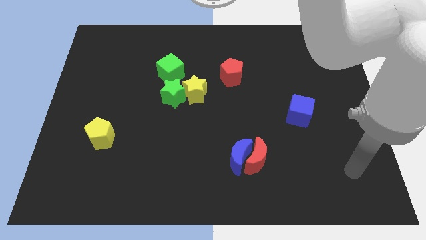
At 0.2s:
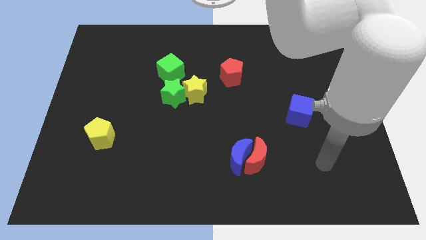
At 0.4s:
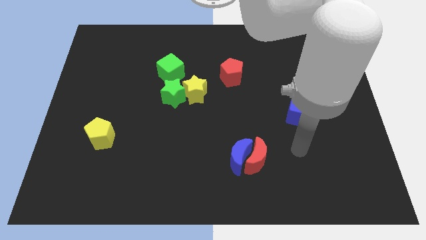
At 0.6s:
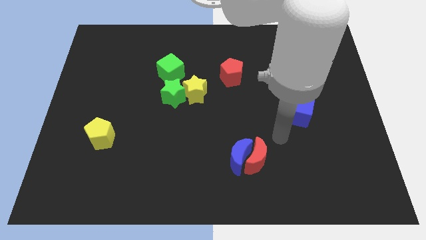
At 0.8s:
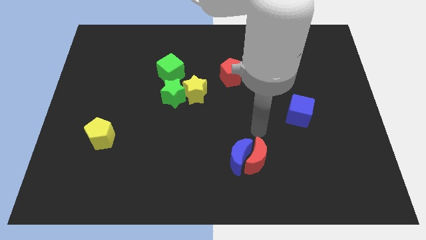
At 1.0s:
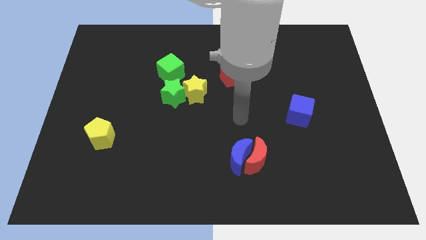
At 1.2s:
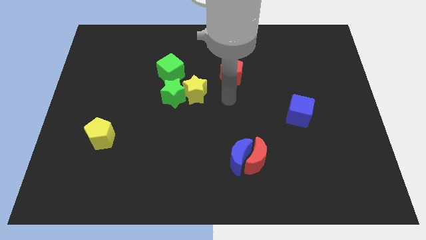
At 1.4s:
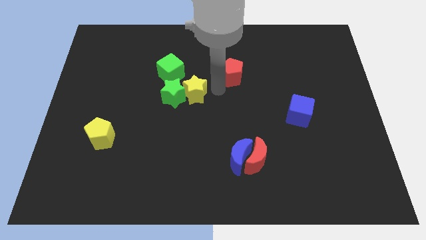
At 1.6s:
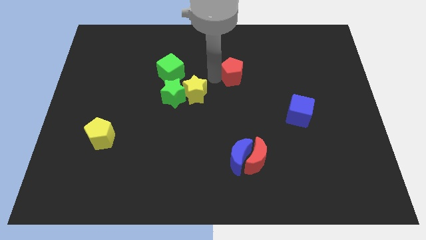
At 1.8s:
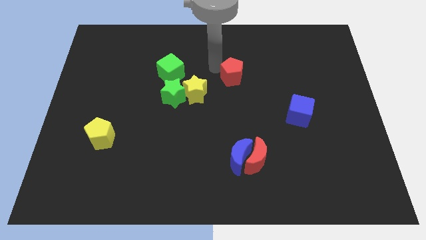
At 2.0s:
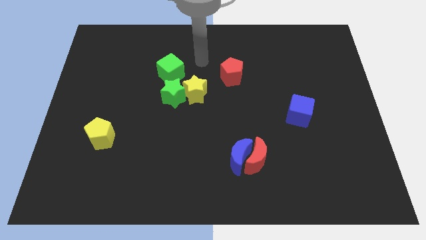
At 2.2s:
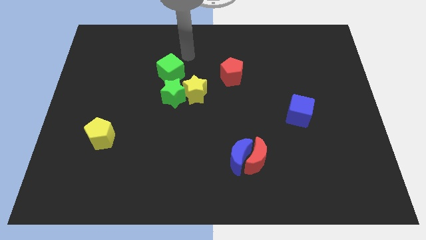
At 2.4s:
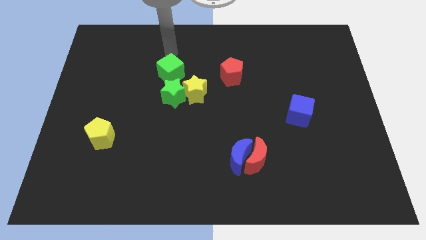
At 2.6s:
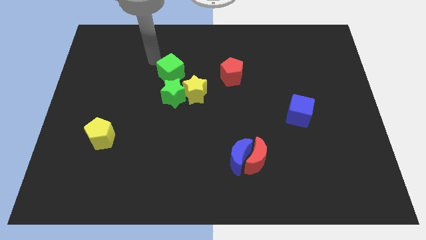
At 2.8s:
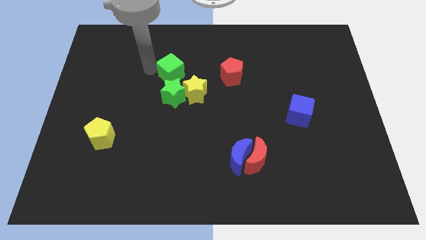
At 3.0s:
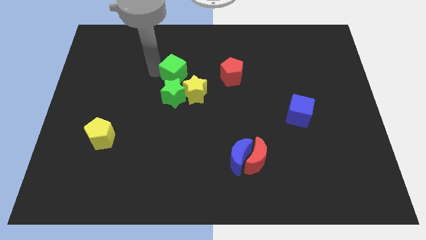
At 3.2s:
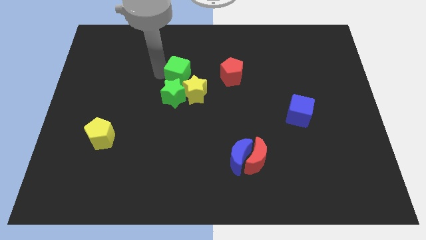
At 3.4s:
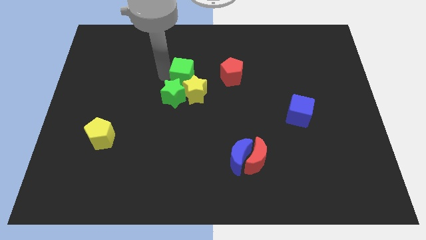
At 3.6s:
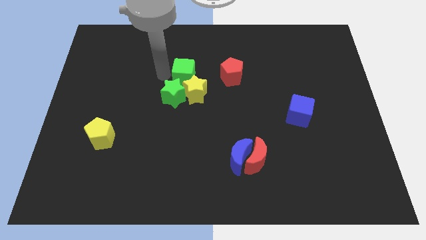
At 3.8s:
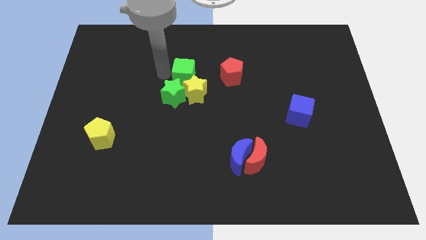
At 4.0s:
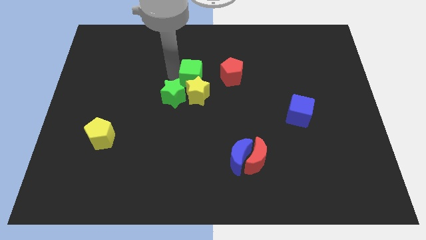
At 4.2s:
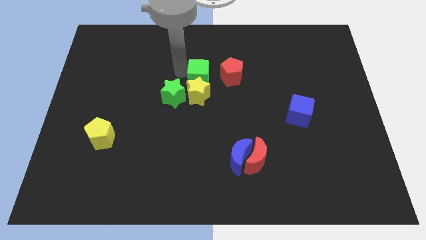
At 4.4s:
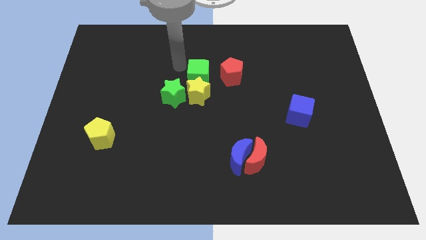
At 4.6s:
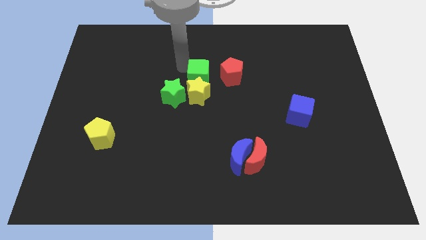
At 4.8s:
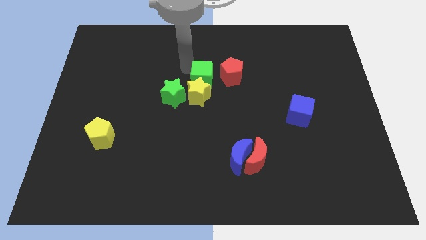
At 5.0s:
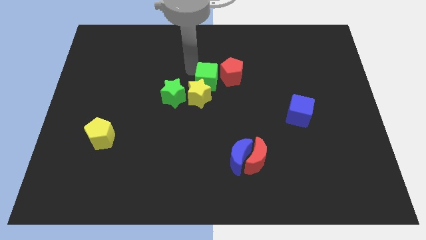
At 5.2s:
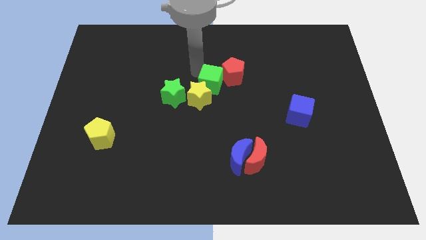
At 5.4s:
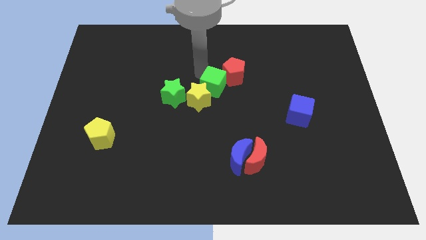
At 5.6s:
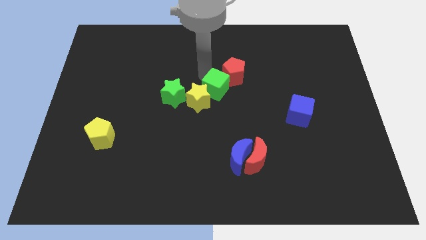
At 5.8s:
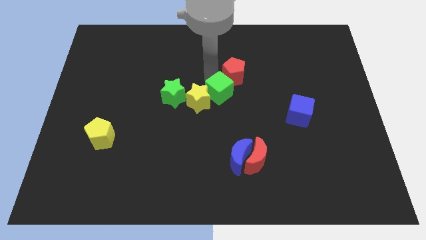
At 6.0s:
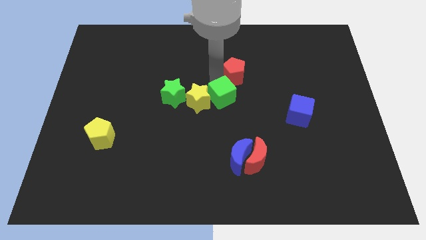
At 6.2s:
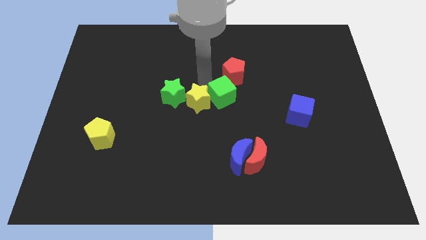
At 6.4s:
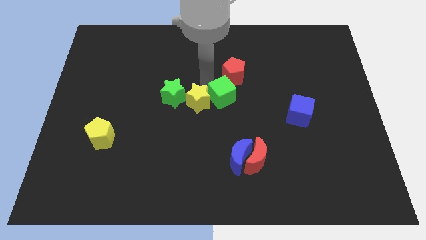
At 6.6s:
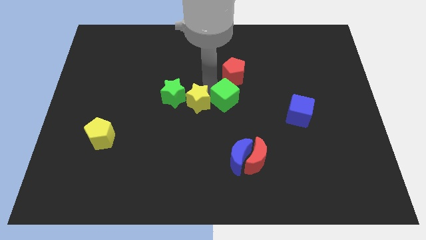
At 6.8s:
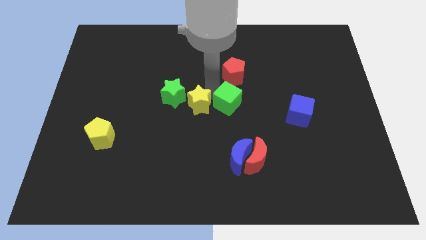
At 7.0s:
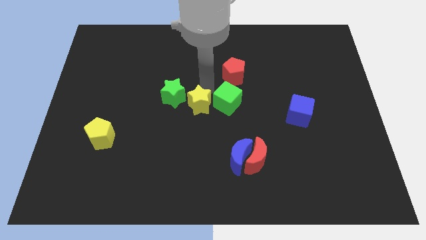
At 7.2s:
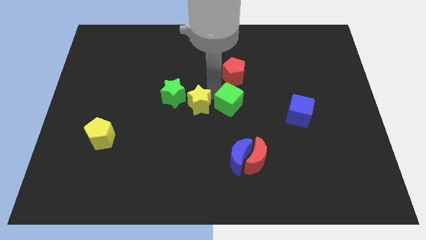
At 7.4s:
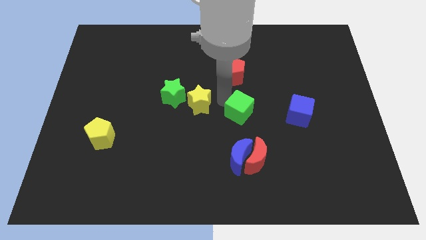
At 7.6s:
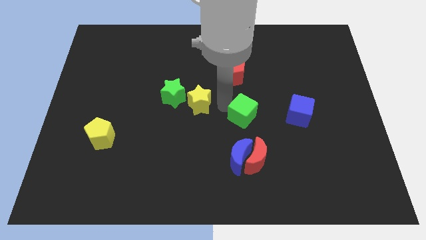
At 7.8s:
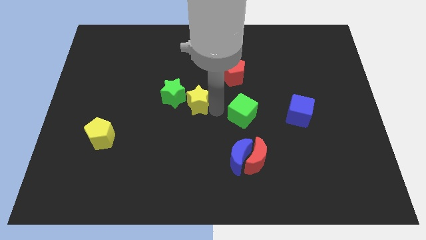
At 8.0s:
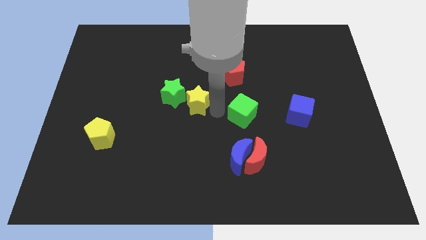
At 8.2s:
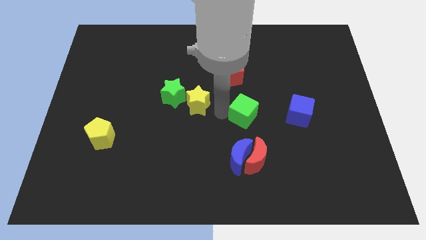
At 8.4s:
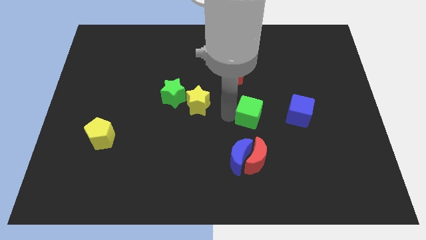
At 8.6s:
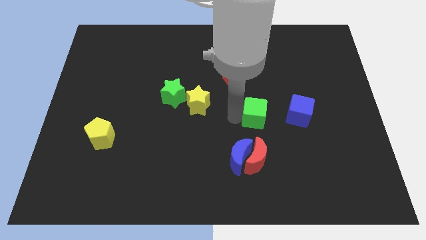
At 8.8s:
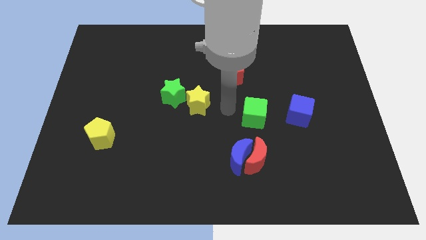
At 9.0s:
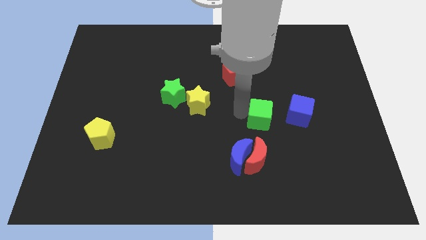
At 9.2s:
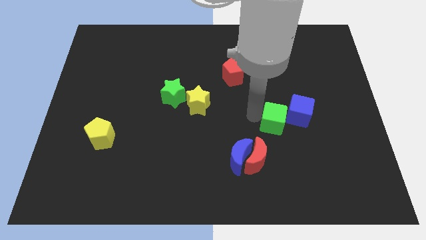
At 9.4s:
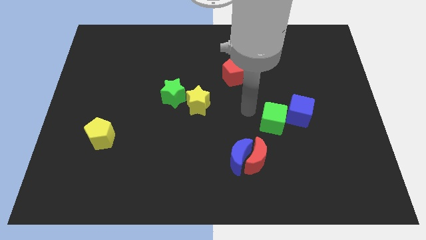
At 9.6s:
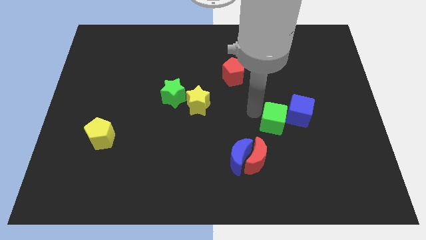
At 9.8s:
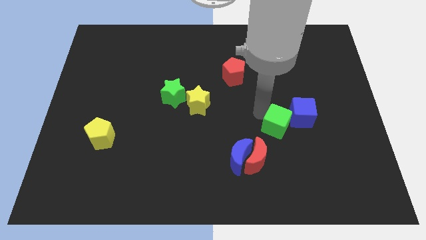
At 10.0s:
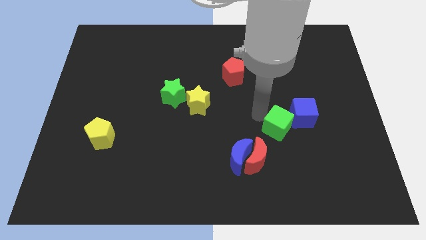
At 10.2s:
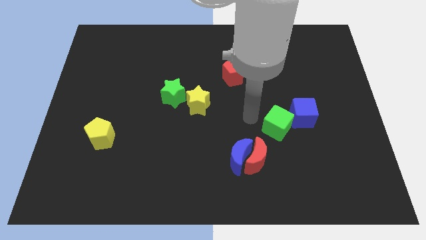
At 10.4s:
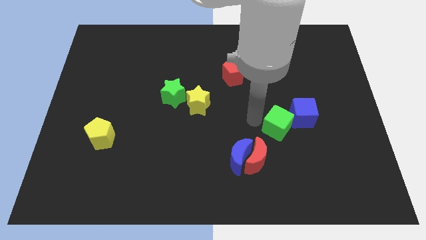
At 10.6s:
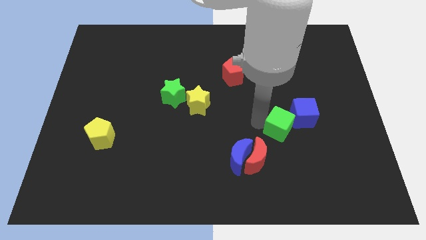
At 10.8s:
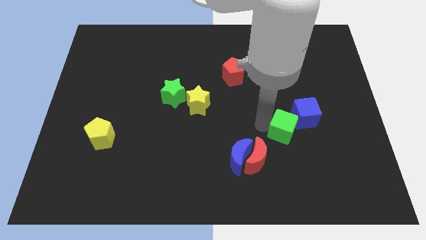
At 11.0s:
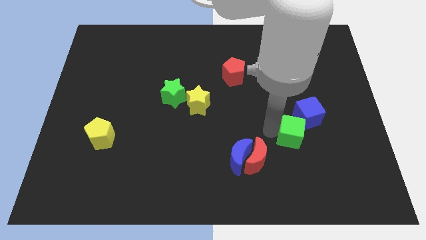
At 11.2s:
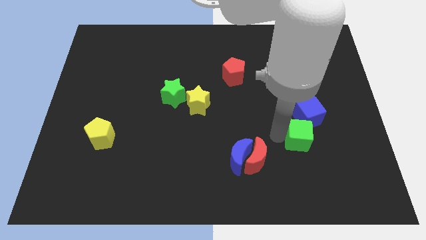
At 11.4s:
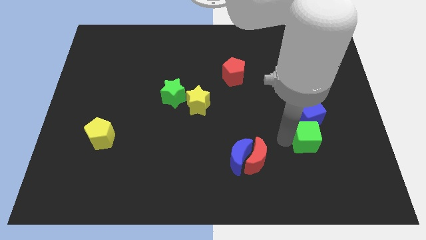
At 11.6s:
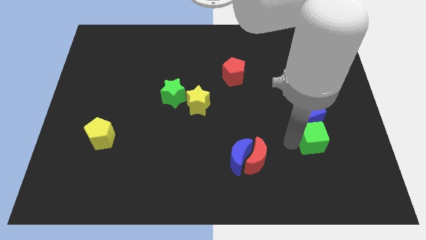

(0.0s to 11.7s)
move the green cube to the bottom right of the blue cube

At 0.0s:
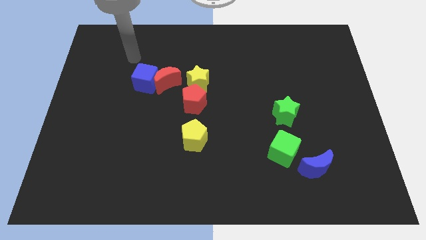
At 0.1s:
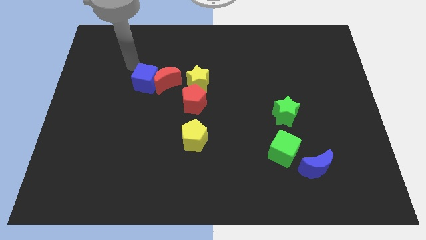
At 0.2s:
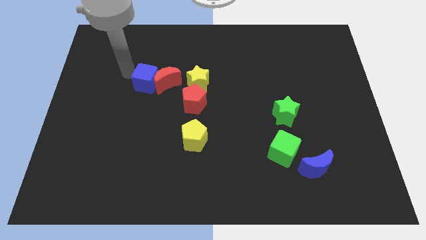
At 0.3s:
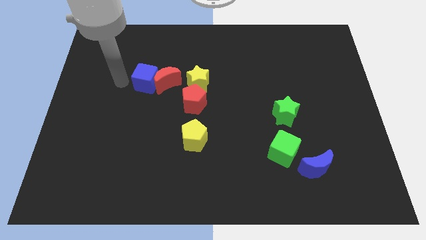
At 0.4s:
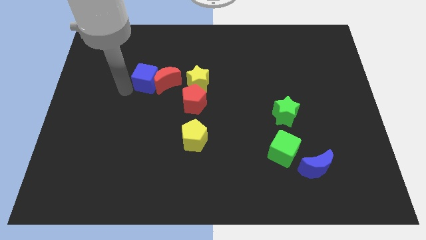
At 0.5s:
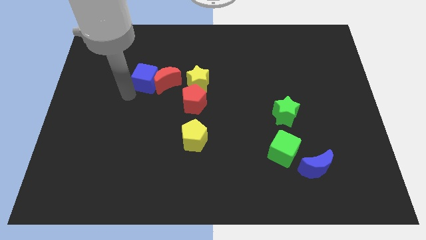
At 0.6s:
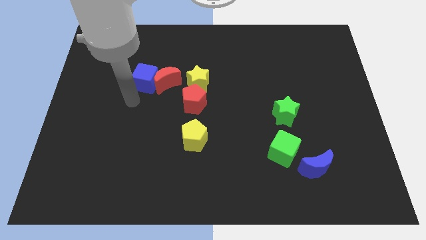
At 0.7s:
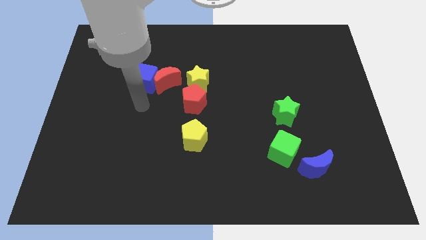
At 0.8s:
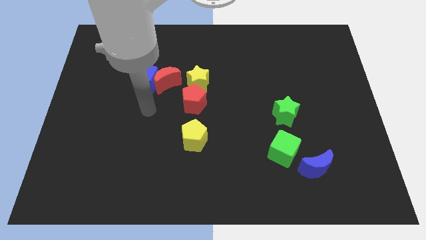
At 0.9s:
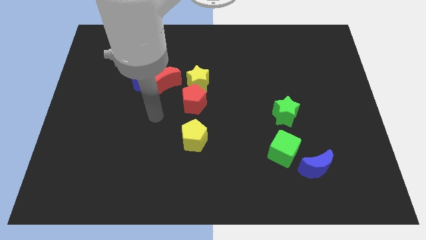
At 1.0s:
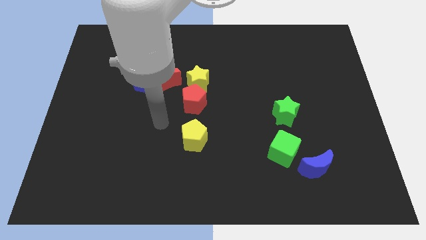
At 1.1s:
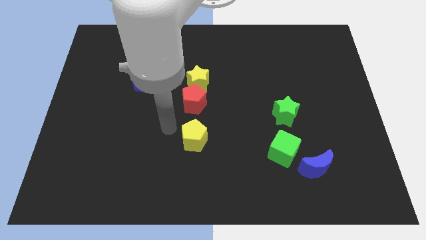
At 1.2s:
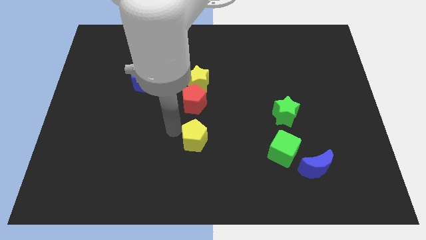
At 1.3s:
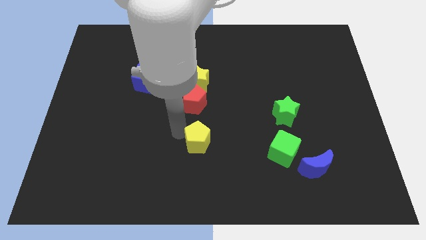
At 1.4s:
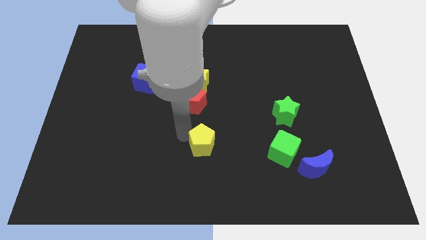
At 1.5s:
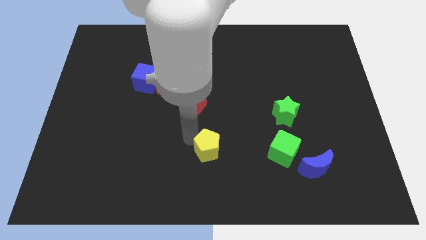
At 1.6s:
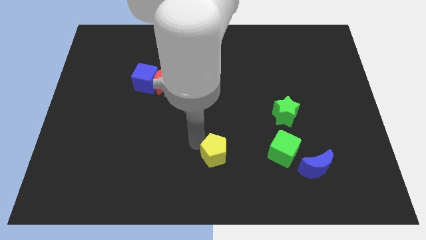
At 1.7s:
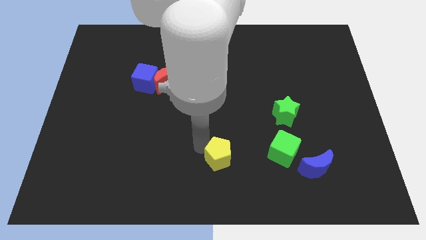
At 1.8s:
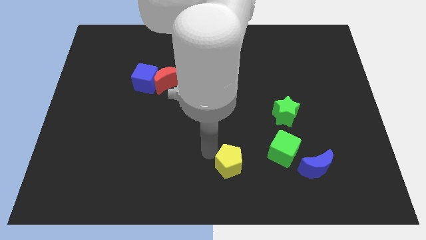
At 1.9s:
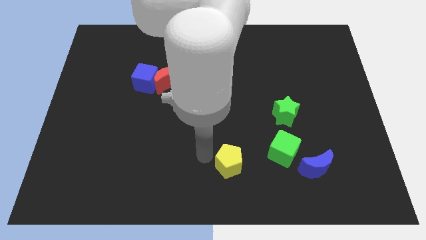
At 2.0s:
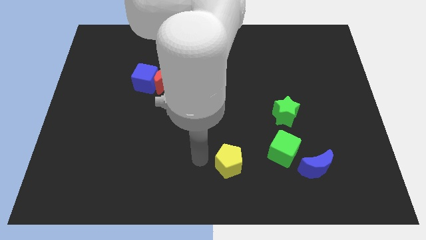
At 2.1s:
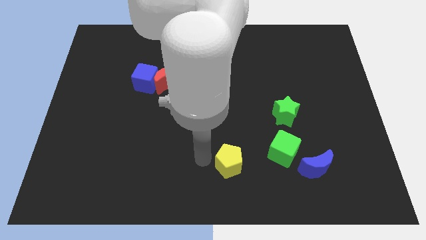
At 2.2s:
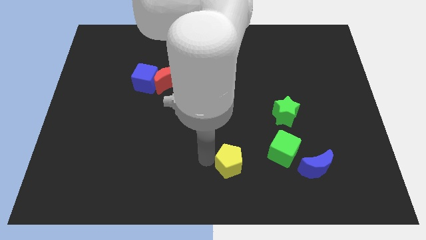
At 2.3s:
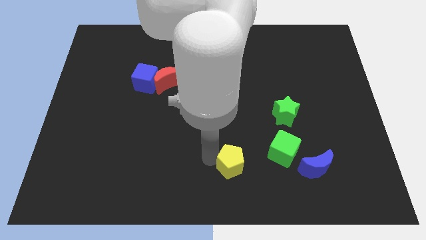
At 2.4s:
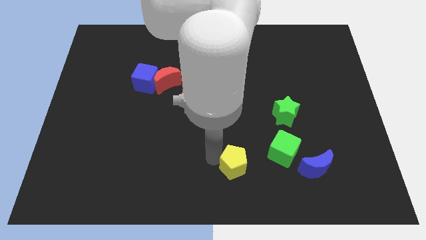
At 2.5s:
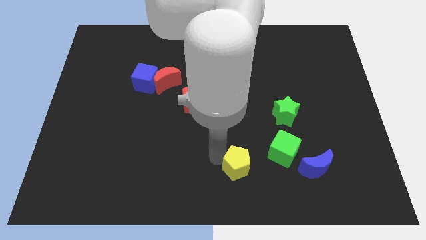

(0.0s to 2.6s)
put the yellow pentagon to the left of the blue moon
